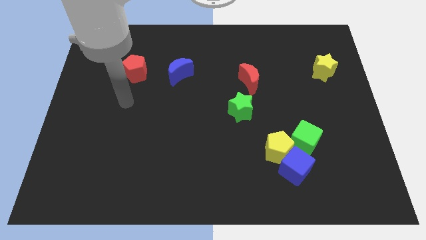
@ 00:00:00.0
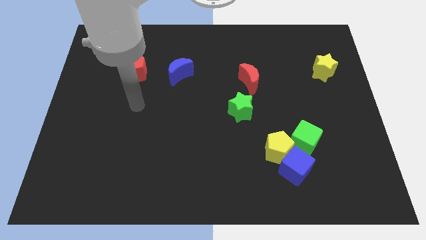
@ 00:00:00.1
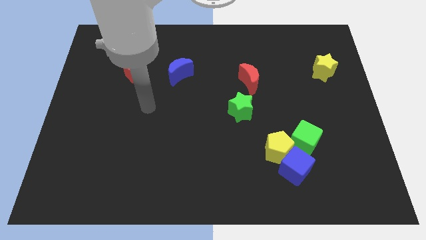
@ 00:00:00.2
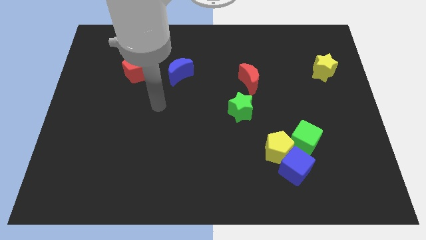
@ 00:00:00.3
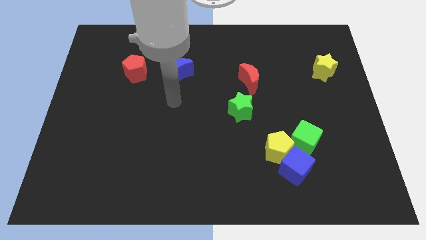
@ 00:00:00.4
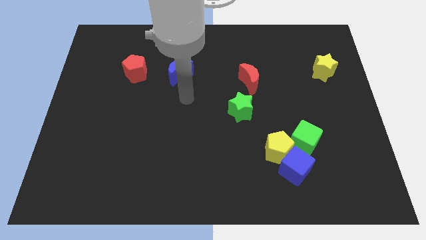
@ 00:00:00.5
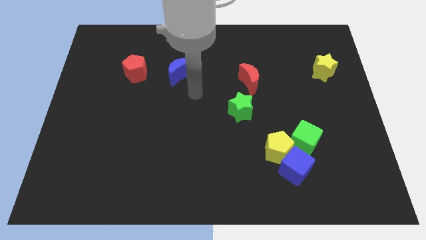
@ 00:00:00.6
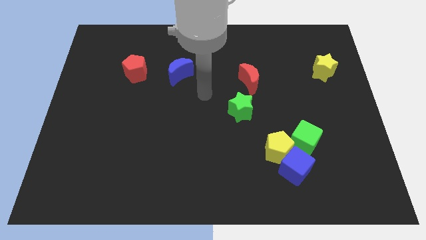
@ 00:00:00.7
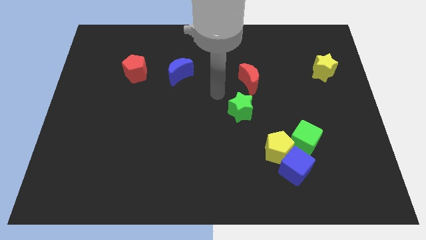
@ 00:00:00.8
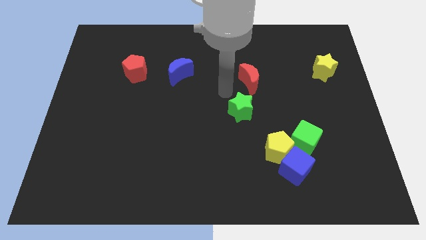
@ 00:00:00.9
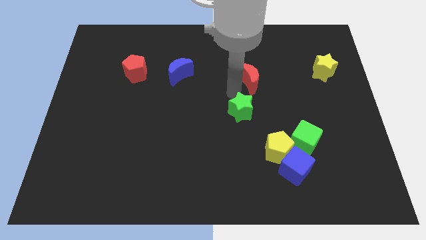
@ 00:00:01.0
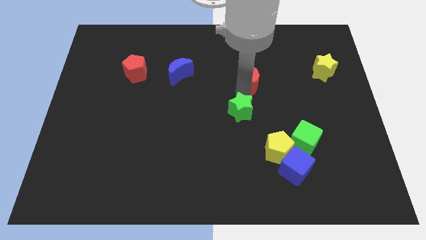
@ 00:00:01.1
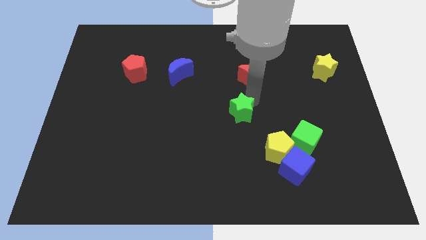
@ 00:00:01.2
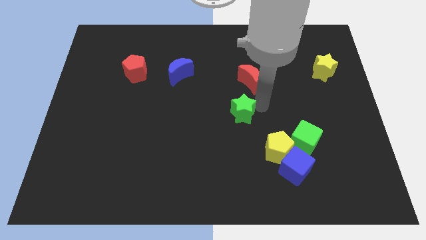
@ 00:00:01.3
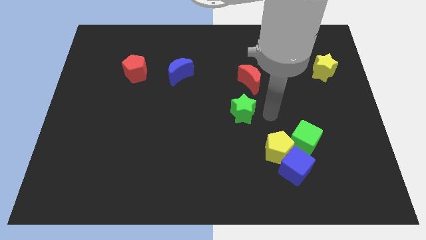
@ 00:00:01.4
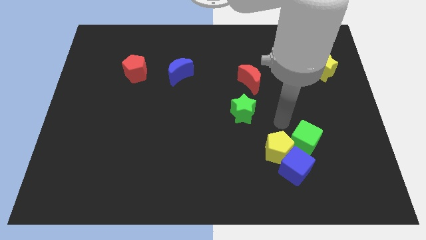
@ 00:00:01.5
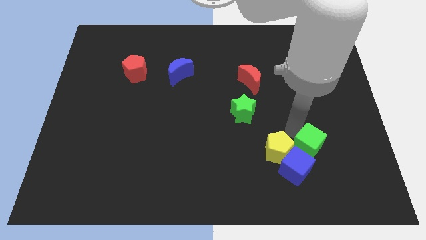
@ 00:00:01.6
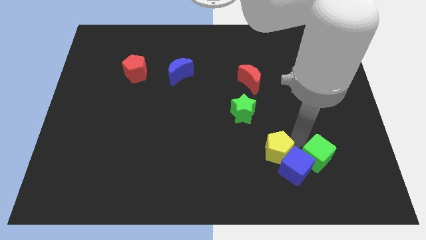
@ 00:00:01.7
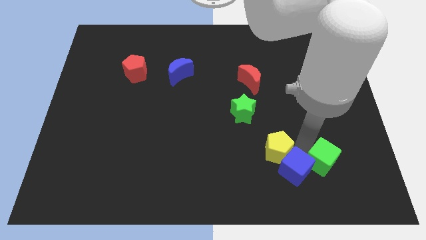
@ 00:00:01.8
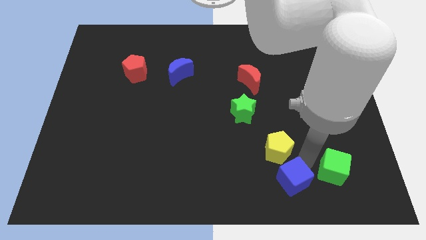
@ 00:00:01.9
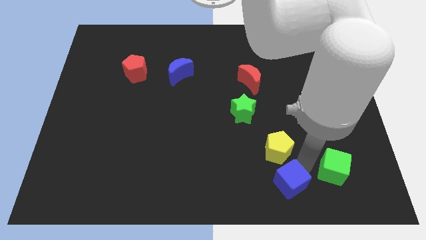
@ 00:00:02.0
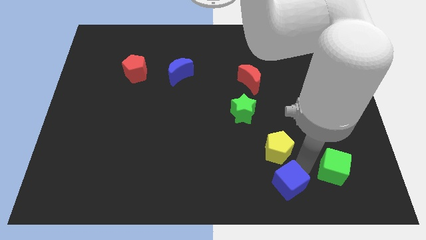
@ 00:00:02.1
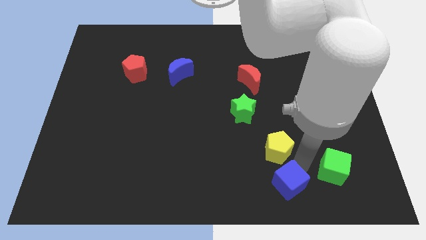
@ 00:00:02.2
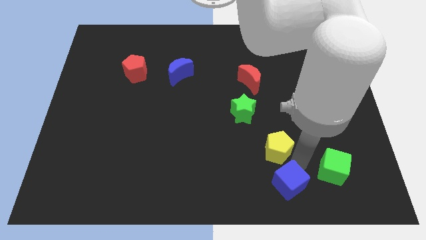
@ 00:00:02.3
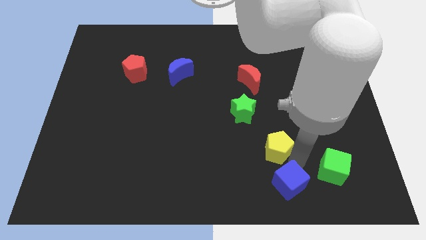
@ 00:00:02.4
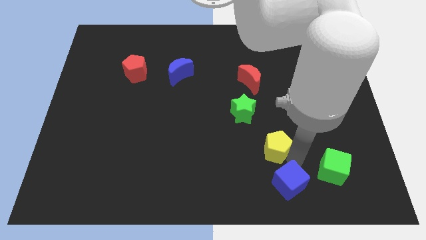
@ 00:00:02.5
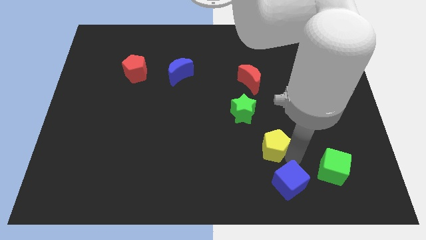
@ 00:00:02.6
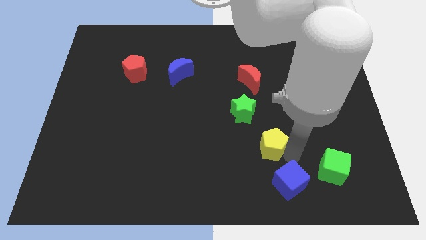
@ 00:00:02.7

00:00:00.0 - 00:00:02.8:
separate the yellow pentagon from the blue cube and green cube

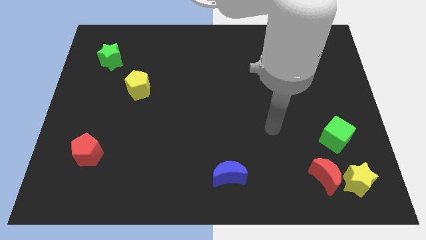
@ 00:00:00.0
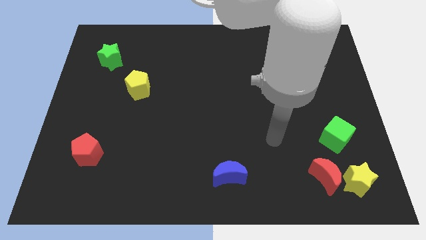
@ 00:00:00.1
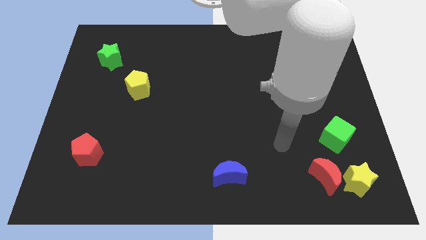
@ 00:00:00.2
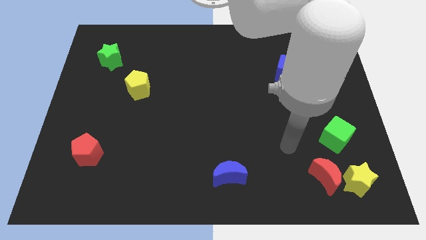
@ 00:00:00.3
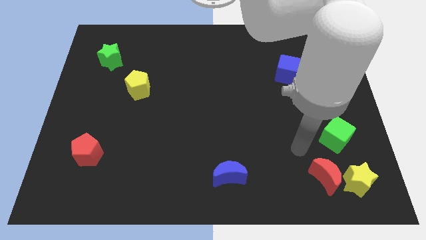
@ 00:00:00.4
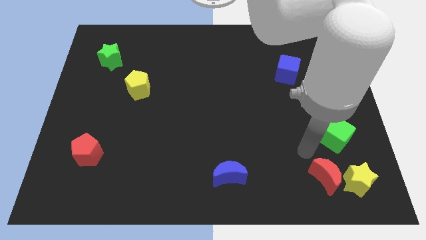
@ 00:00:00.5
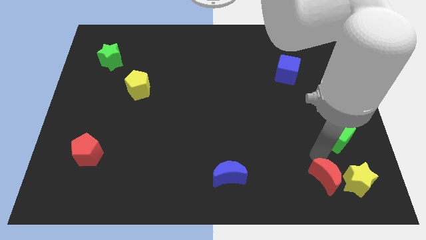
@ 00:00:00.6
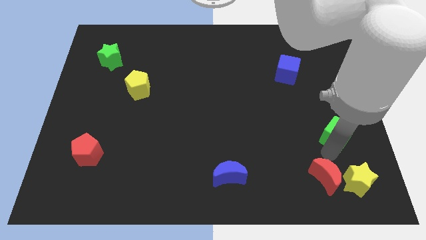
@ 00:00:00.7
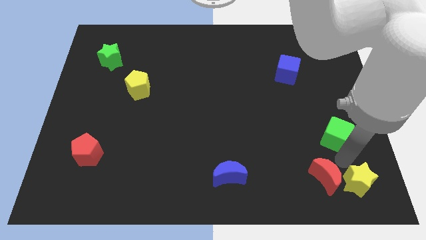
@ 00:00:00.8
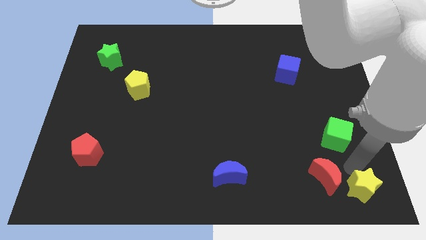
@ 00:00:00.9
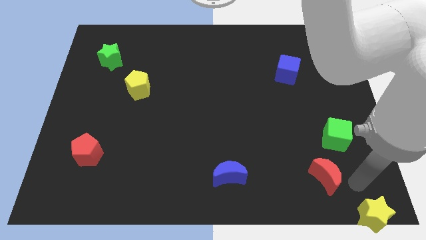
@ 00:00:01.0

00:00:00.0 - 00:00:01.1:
move the red moon away from the yellow star

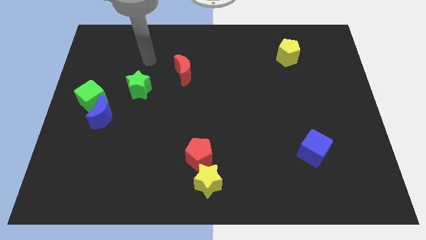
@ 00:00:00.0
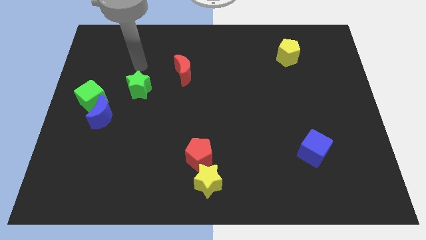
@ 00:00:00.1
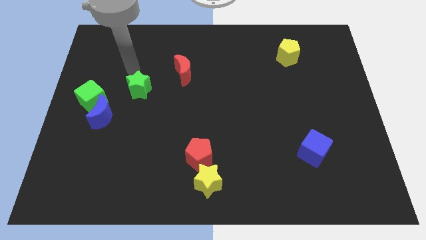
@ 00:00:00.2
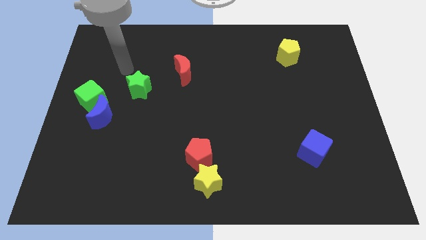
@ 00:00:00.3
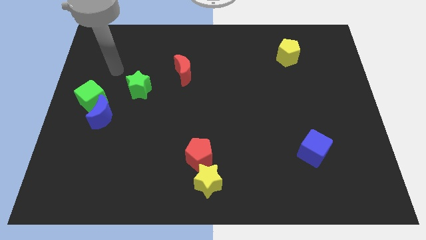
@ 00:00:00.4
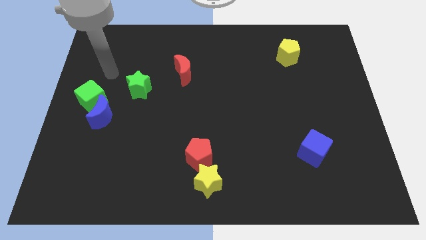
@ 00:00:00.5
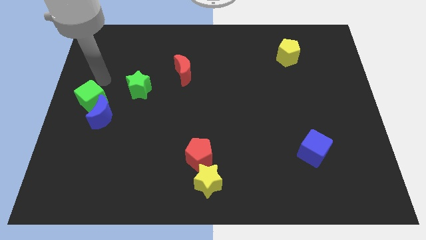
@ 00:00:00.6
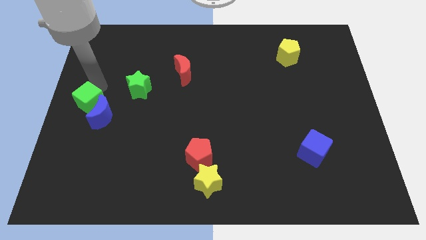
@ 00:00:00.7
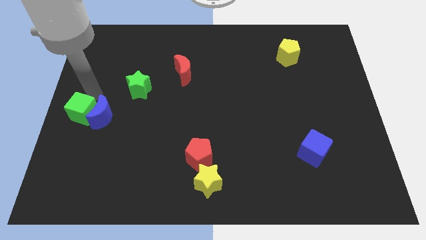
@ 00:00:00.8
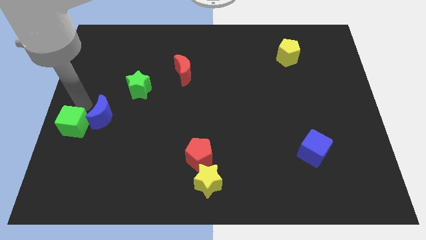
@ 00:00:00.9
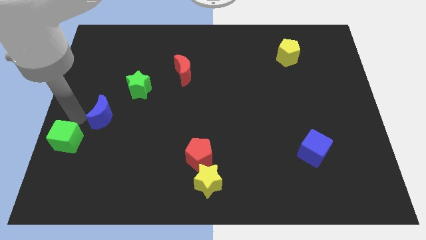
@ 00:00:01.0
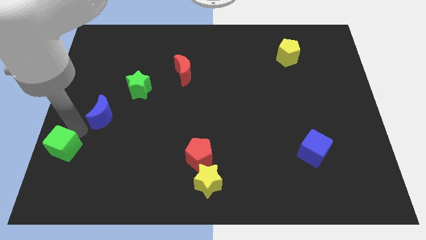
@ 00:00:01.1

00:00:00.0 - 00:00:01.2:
separate the blue moon from the green cube

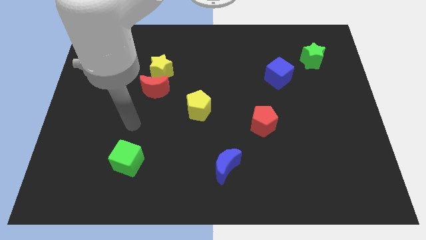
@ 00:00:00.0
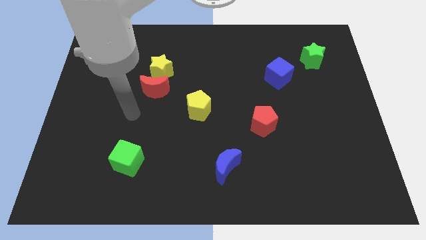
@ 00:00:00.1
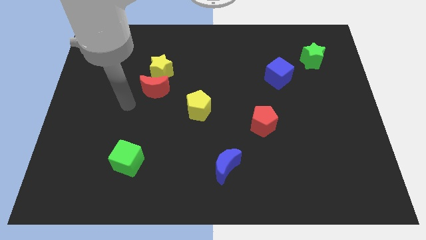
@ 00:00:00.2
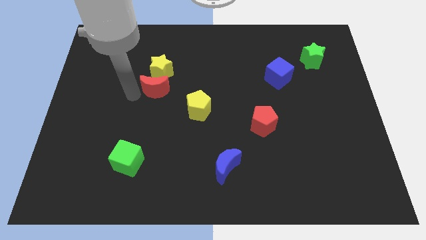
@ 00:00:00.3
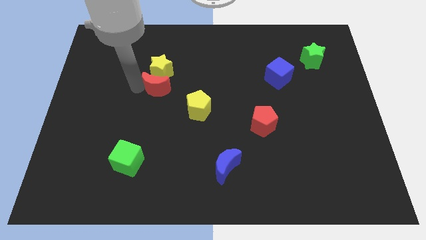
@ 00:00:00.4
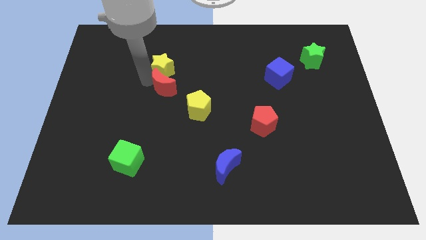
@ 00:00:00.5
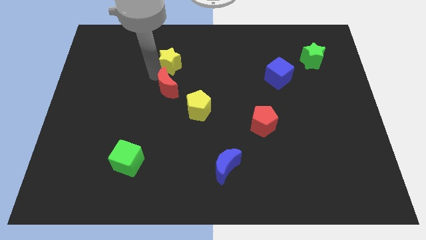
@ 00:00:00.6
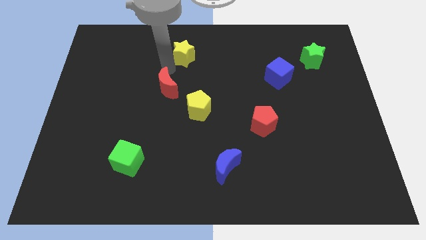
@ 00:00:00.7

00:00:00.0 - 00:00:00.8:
separate the red moon from the yellow star

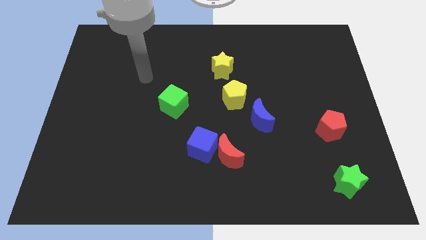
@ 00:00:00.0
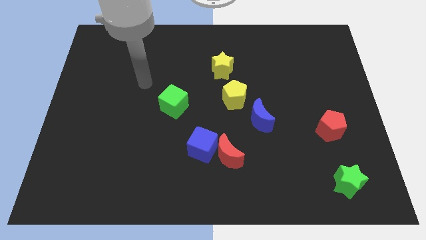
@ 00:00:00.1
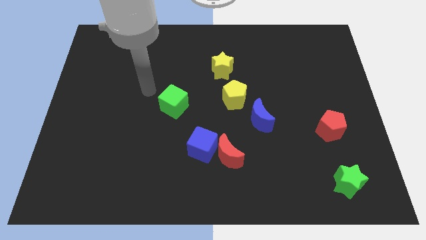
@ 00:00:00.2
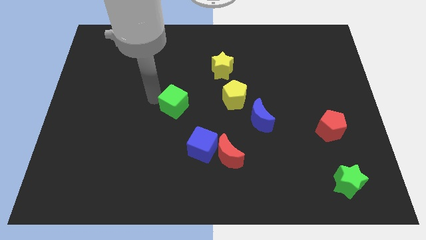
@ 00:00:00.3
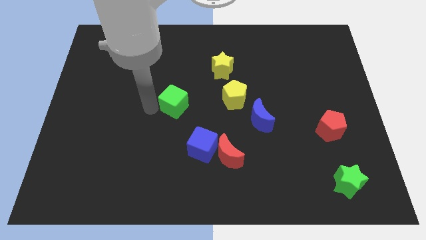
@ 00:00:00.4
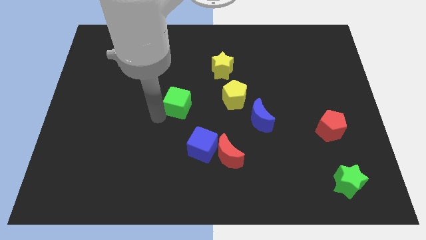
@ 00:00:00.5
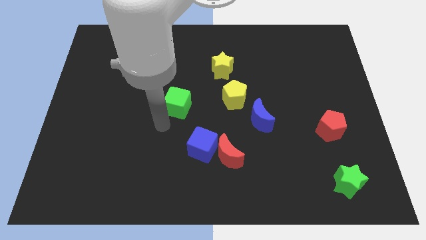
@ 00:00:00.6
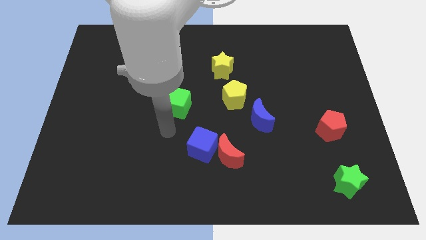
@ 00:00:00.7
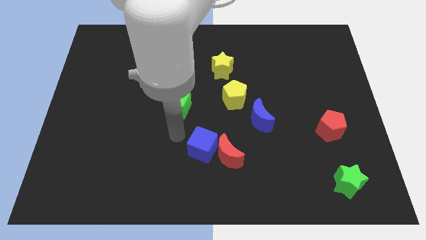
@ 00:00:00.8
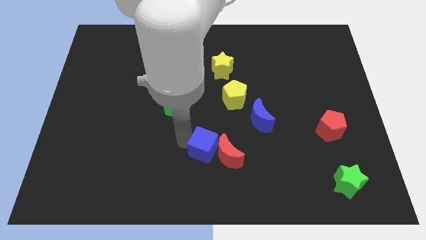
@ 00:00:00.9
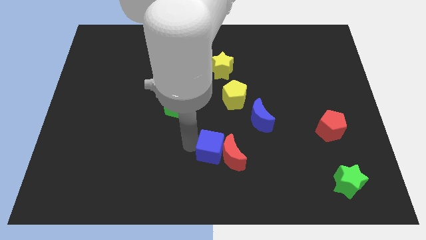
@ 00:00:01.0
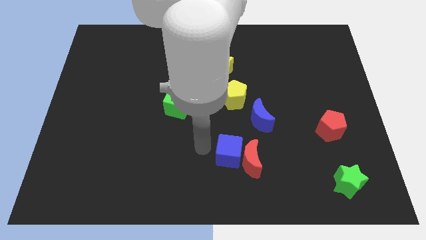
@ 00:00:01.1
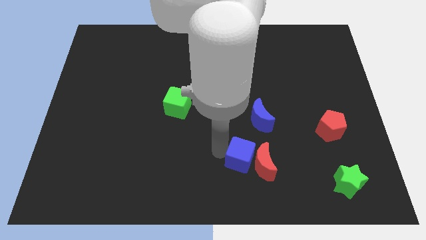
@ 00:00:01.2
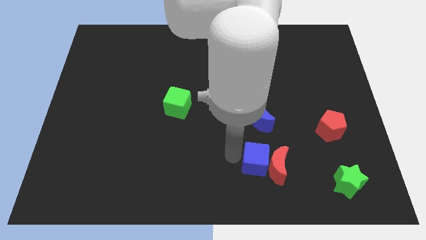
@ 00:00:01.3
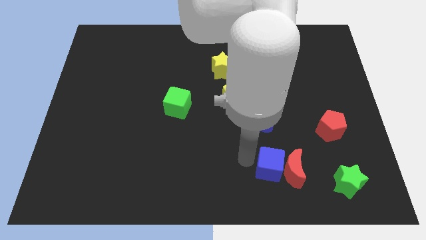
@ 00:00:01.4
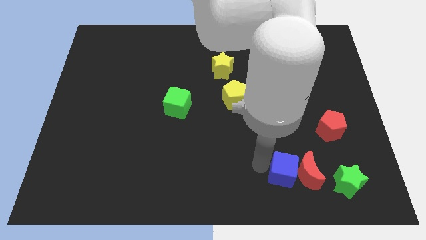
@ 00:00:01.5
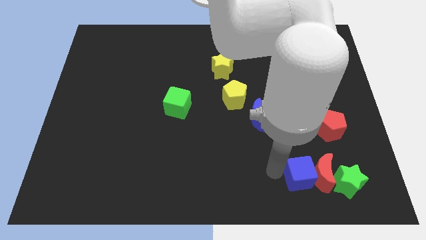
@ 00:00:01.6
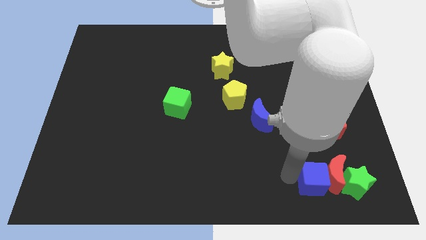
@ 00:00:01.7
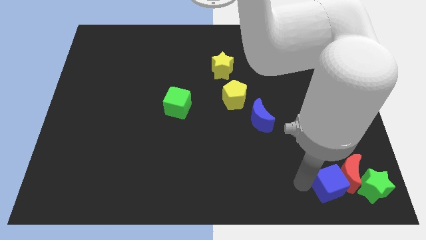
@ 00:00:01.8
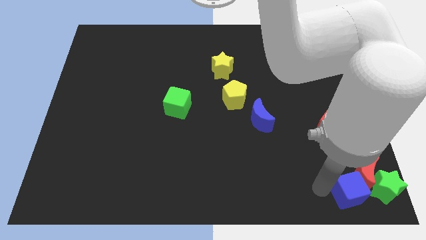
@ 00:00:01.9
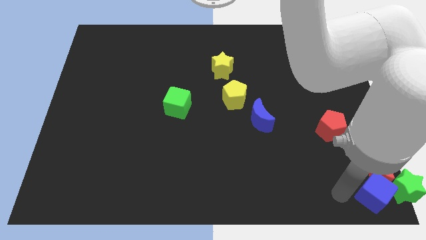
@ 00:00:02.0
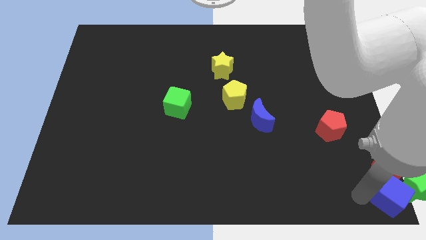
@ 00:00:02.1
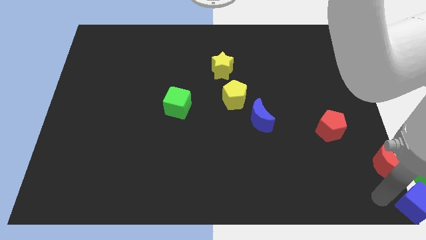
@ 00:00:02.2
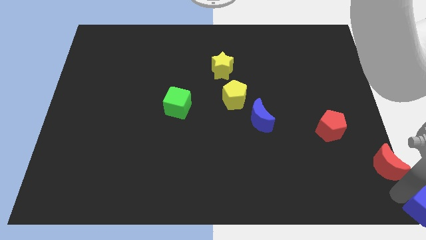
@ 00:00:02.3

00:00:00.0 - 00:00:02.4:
move the red moon away from the blue cube

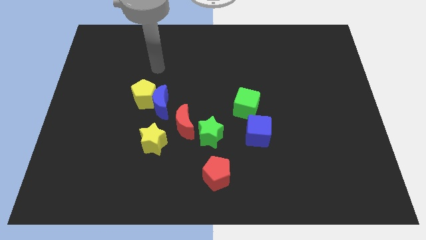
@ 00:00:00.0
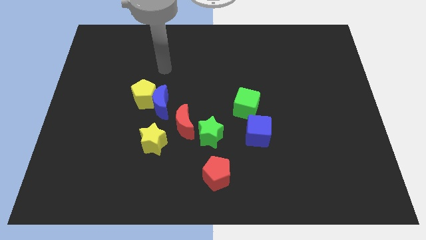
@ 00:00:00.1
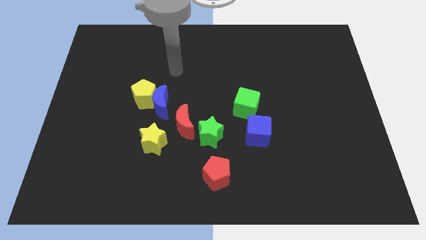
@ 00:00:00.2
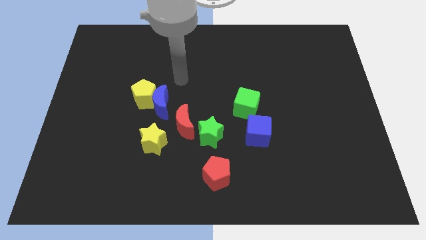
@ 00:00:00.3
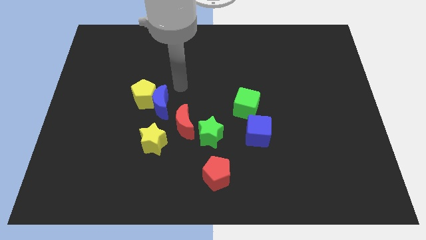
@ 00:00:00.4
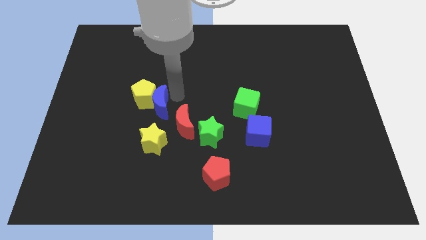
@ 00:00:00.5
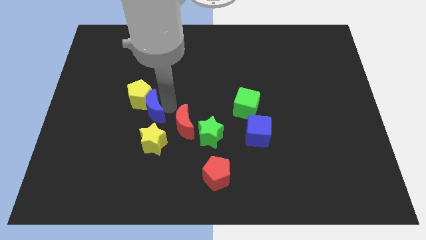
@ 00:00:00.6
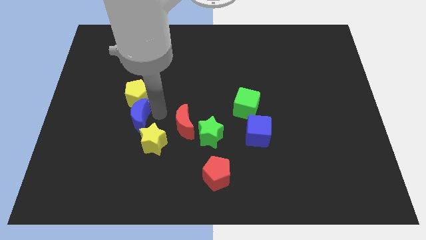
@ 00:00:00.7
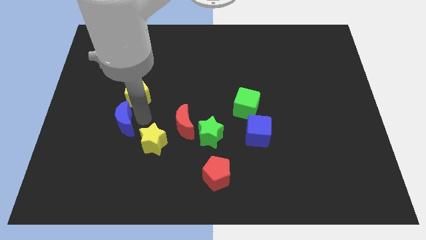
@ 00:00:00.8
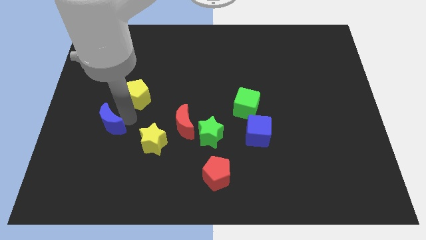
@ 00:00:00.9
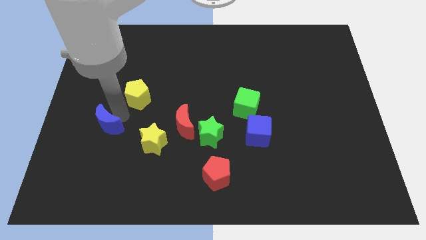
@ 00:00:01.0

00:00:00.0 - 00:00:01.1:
separate the yellow pentagon from the blue moon
